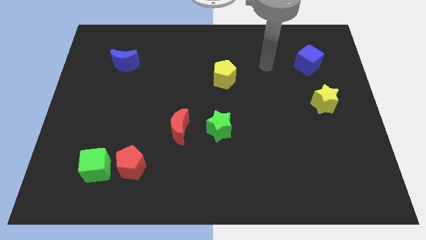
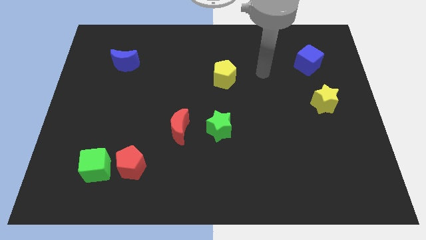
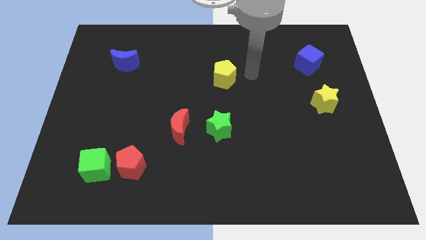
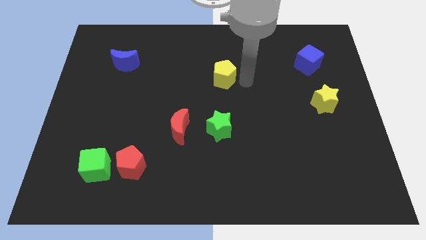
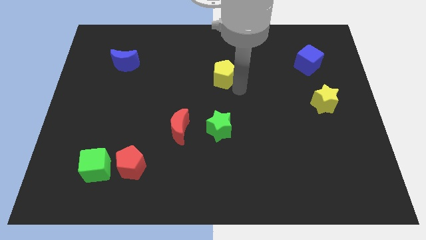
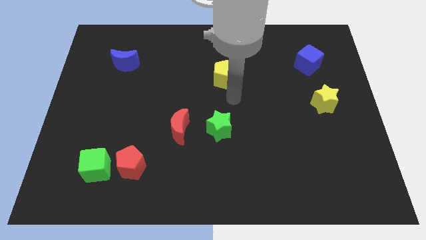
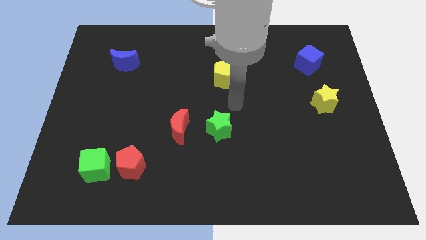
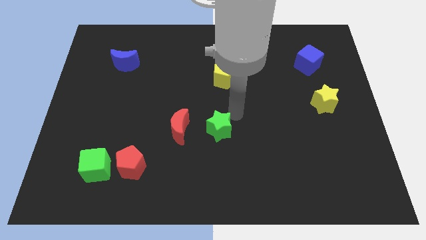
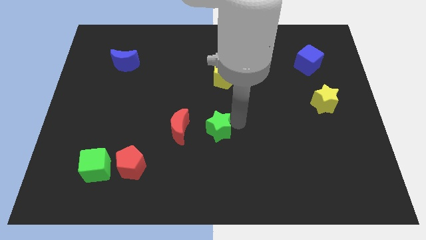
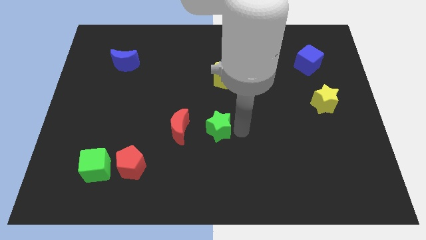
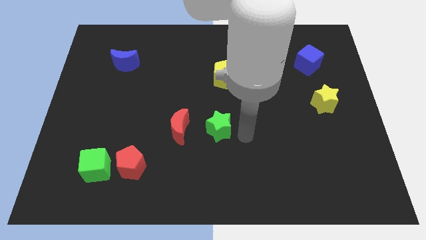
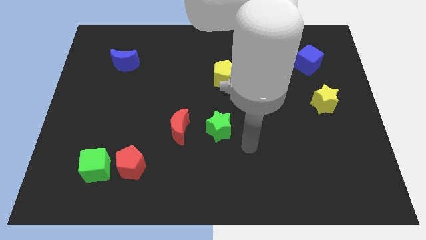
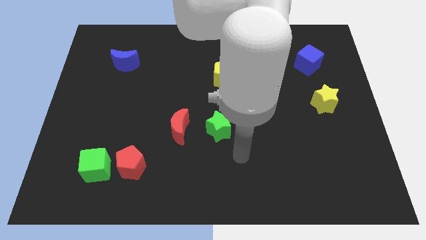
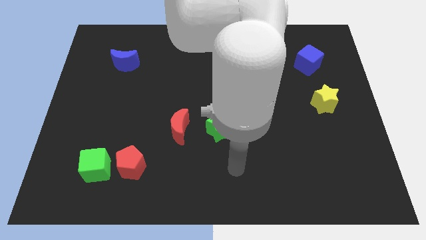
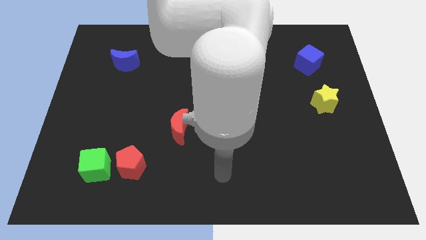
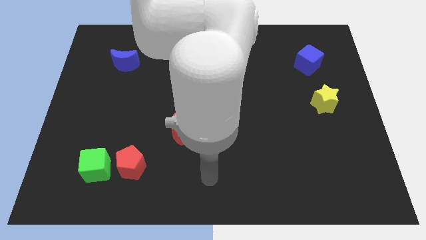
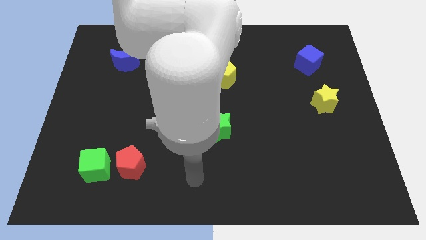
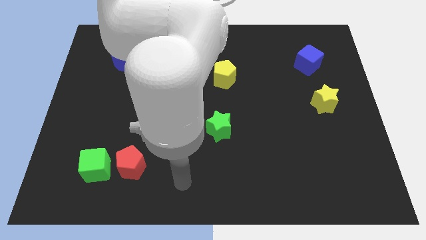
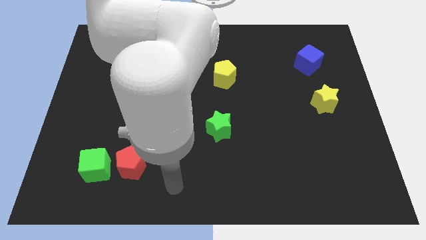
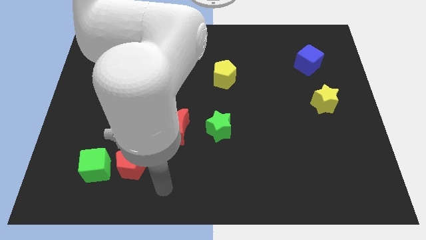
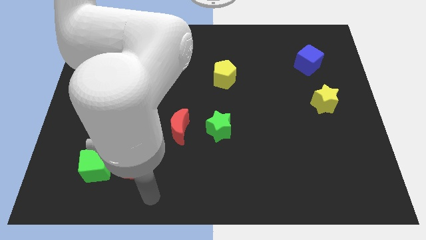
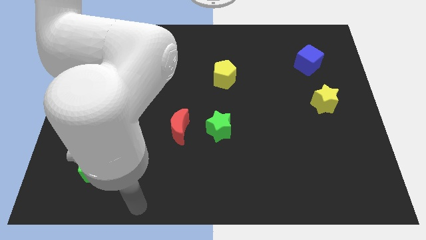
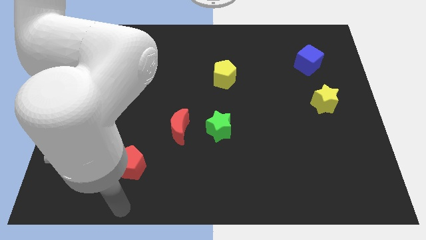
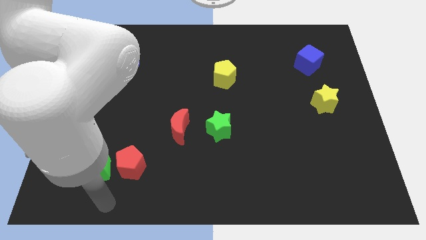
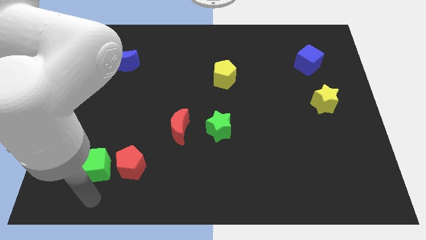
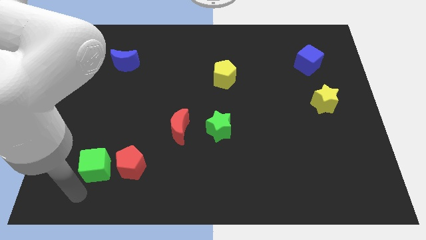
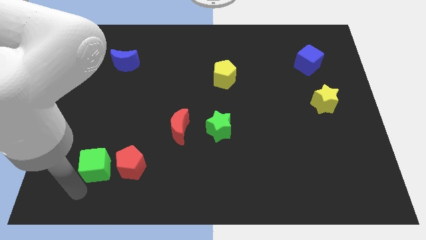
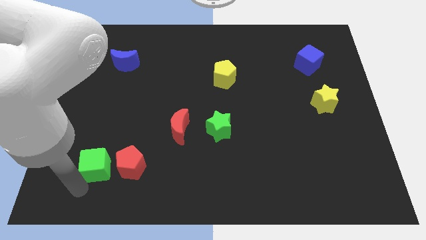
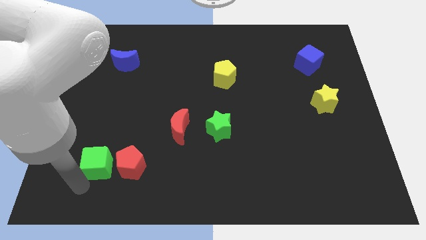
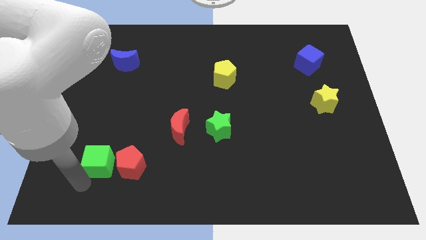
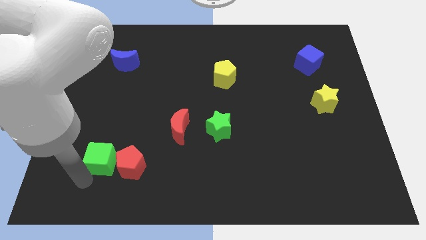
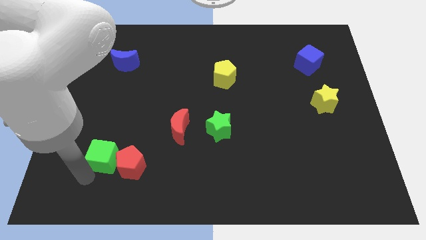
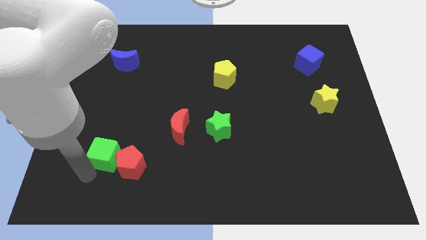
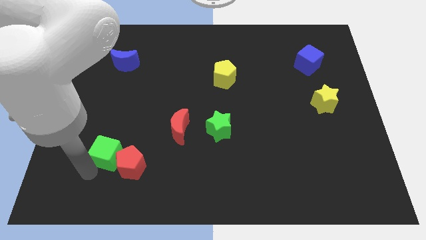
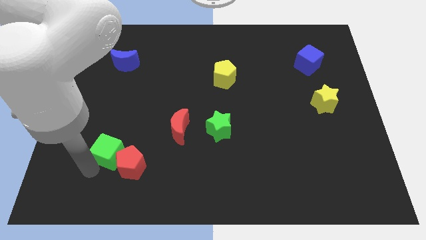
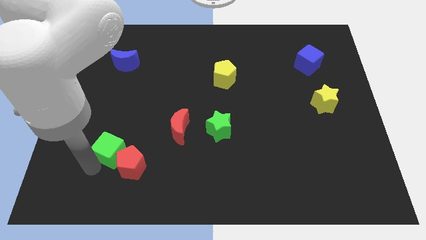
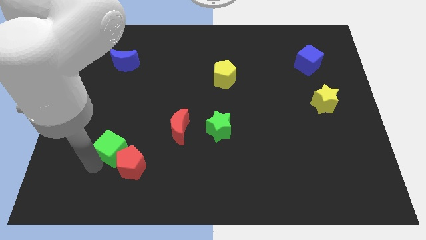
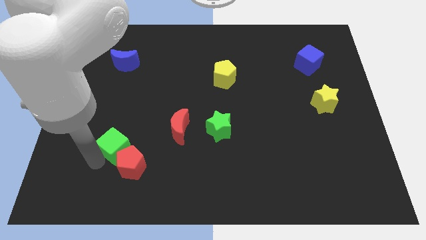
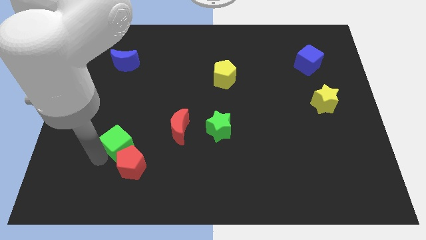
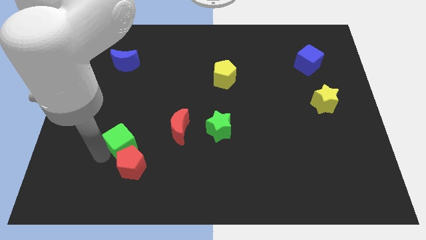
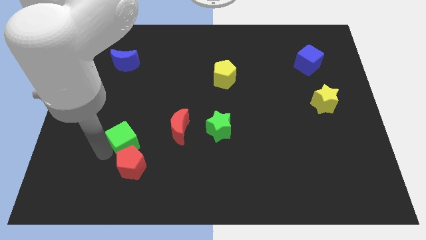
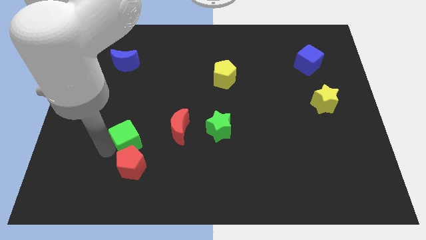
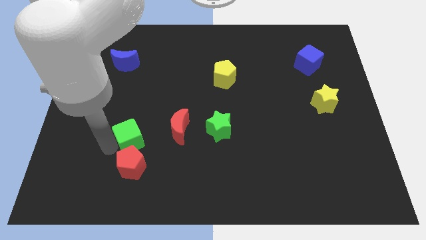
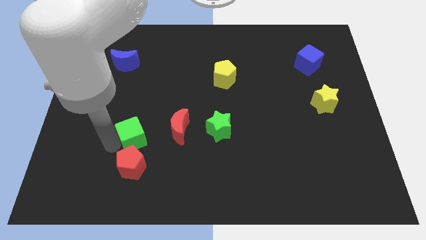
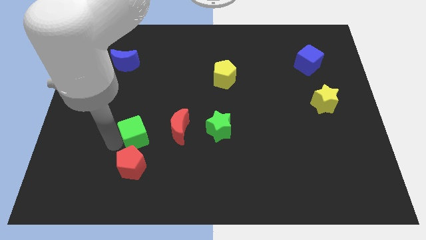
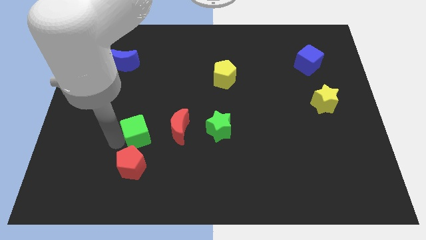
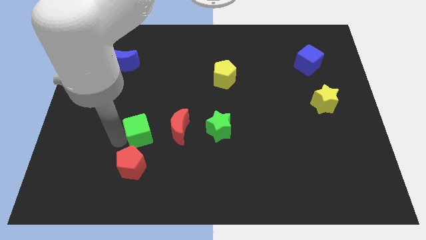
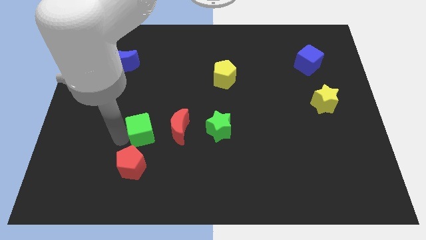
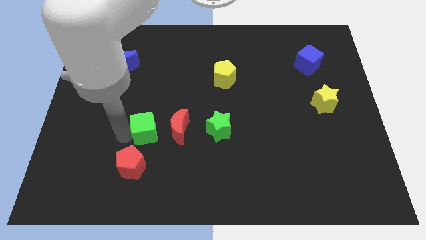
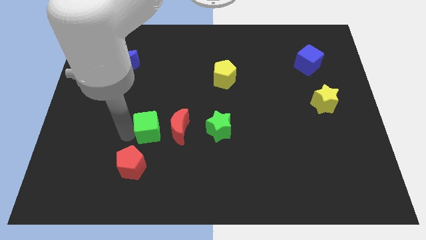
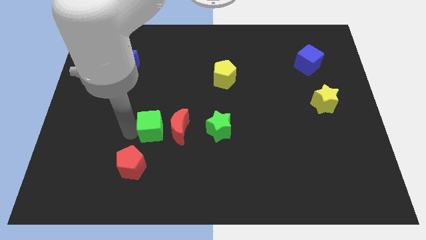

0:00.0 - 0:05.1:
slide the green cube next to the red moon

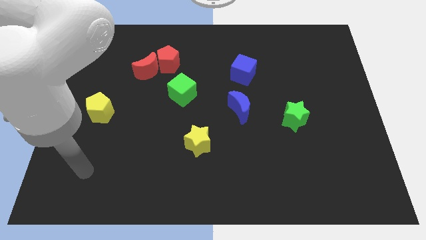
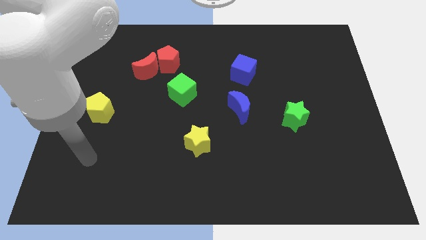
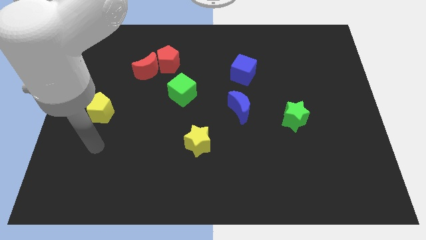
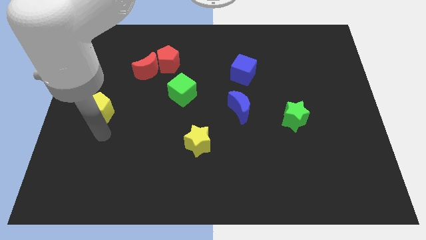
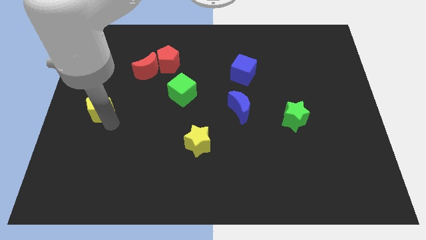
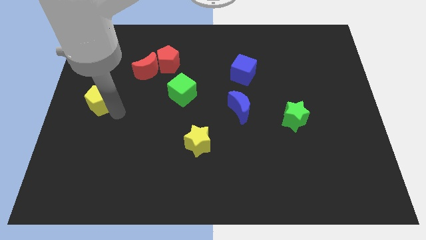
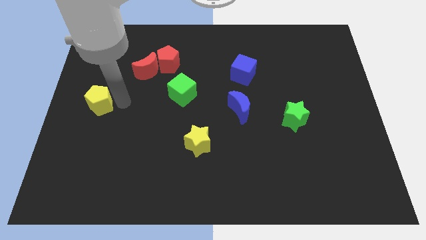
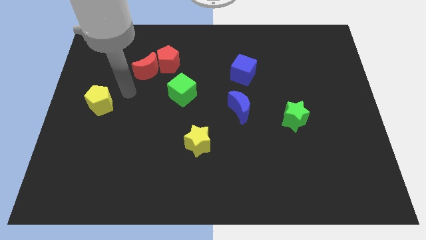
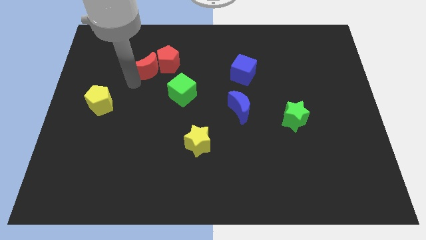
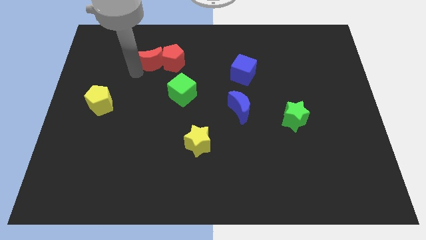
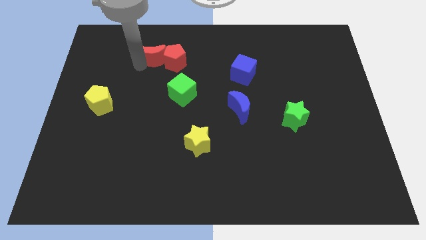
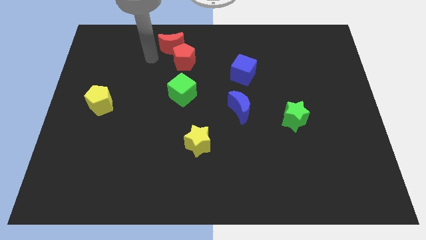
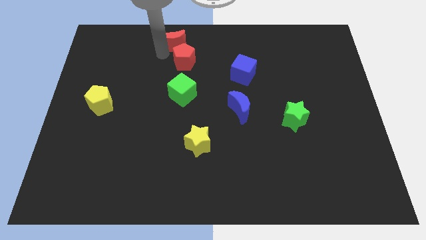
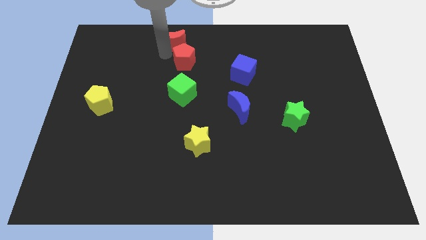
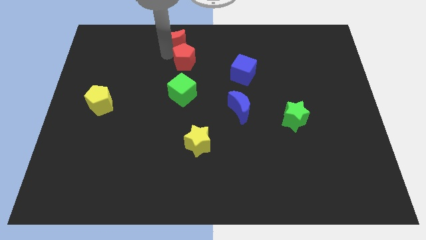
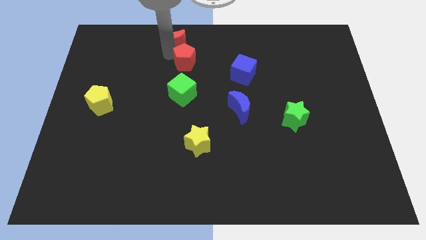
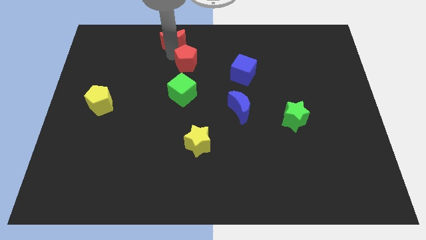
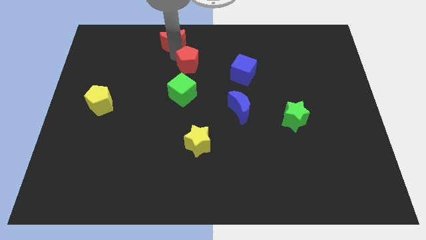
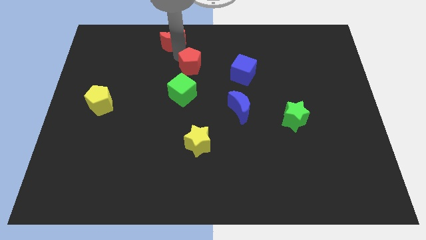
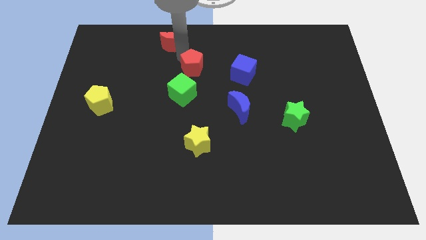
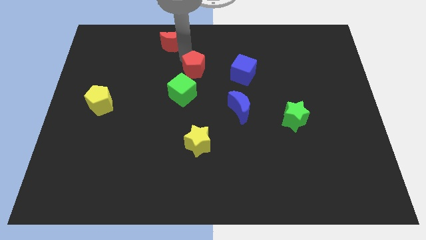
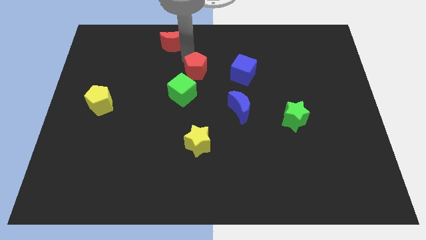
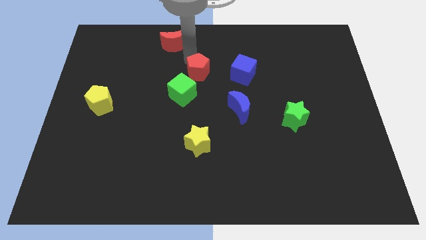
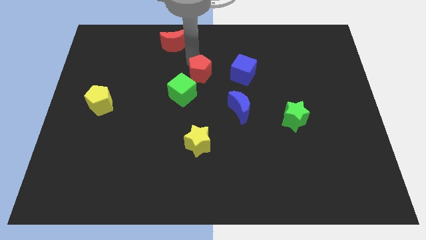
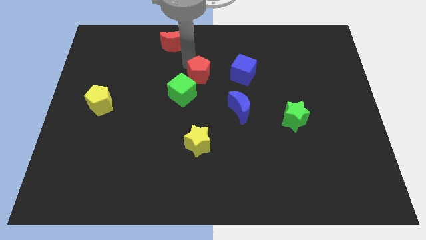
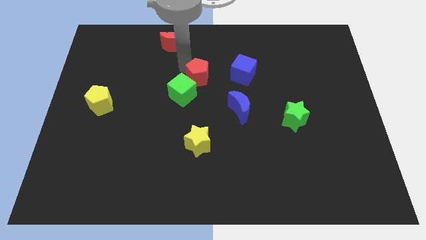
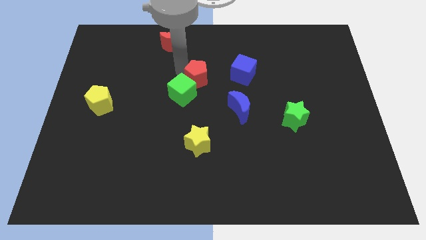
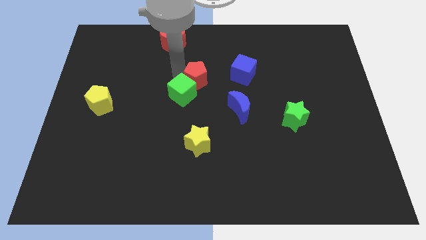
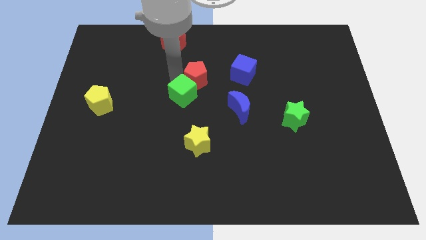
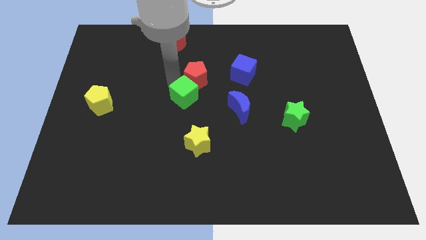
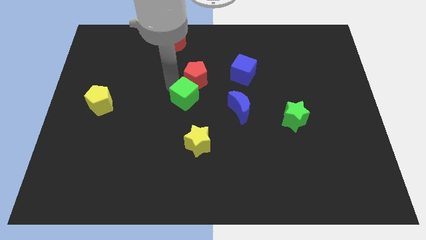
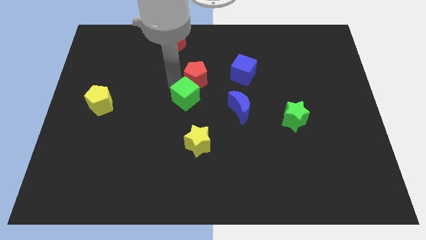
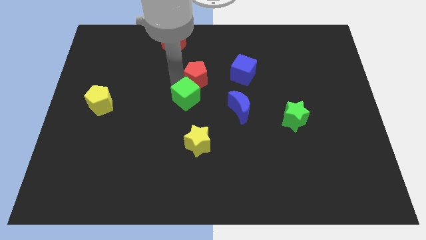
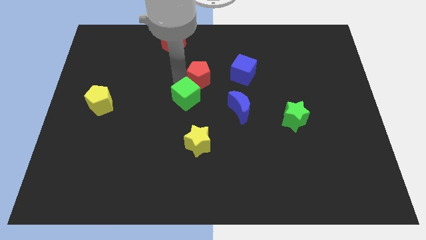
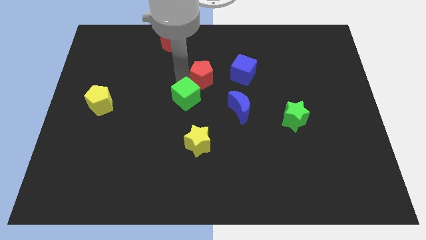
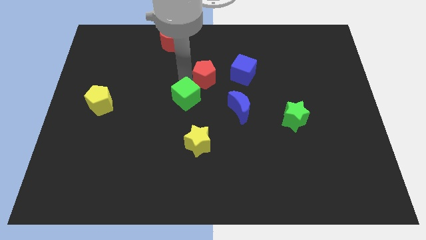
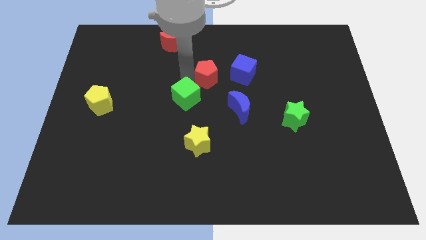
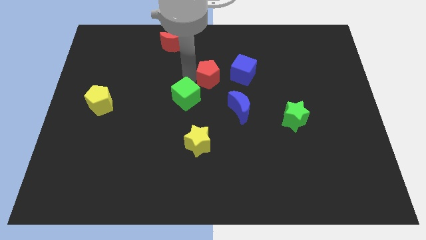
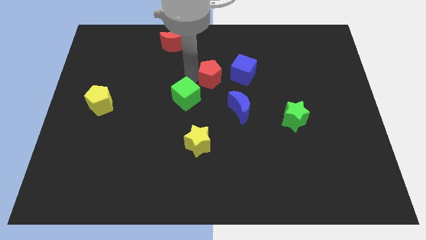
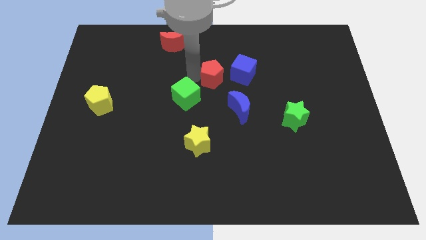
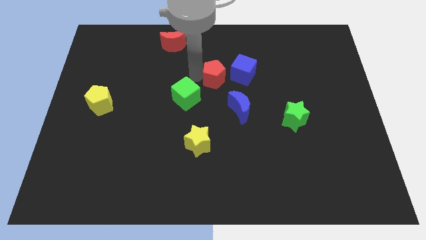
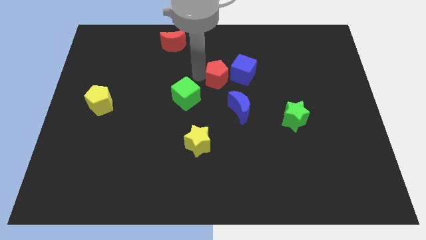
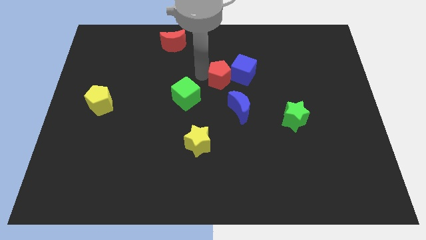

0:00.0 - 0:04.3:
slide the red pentagon close to the blue cube
